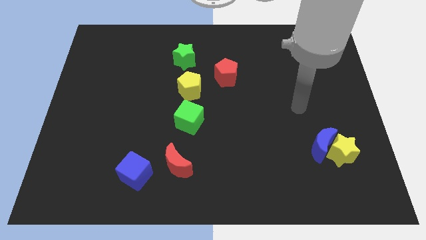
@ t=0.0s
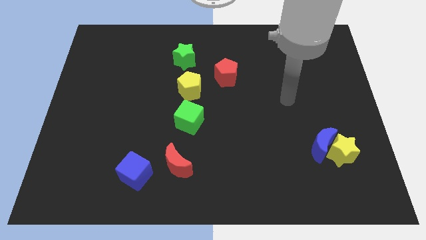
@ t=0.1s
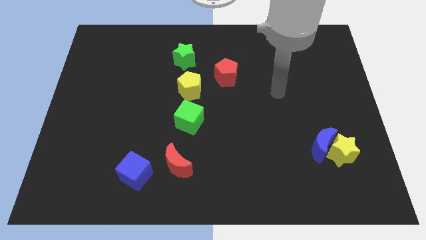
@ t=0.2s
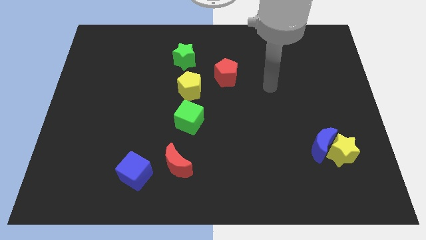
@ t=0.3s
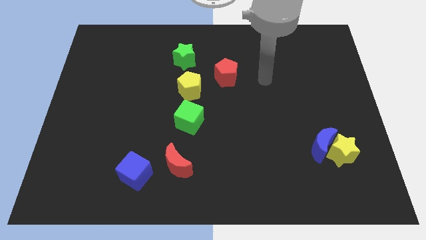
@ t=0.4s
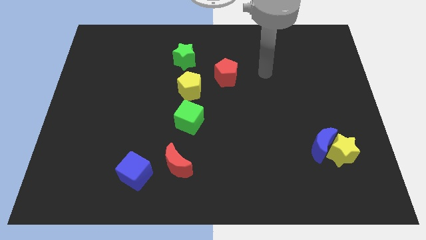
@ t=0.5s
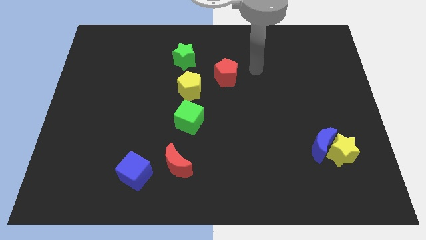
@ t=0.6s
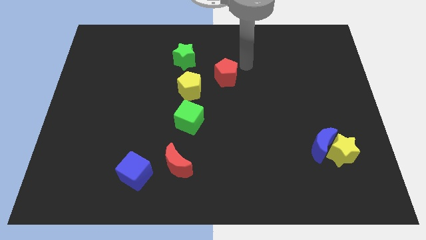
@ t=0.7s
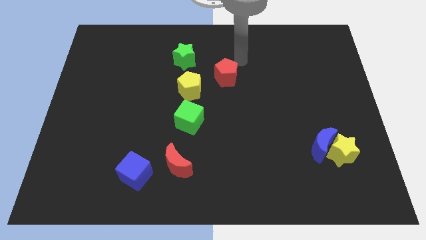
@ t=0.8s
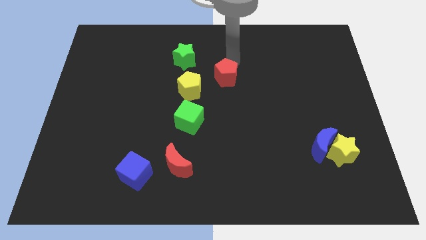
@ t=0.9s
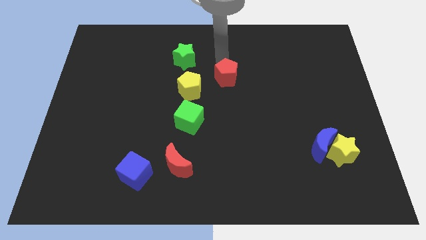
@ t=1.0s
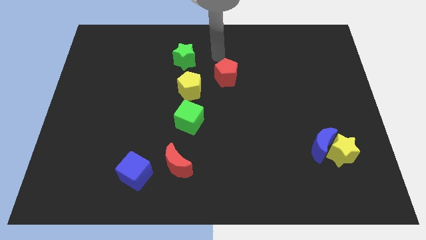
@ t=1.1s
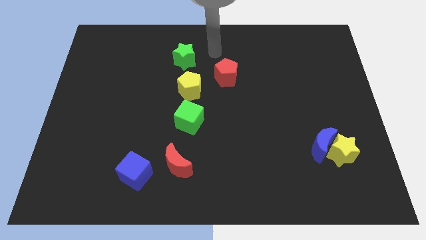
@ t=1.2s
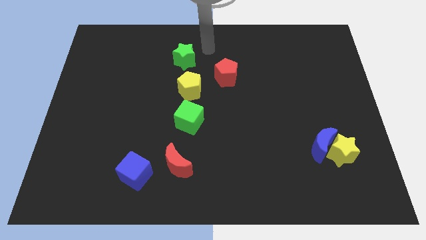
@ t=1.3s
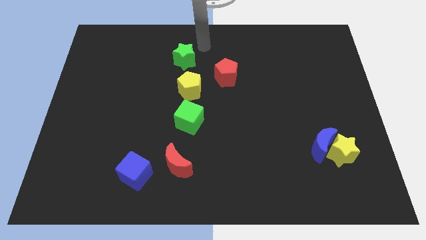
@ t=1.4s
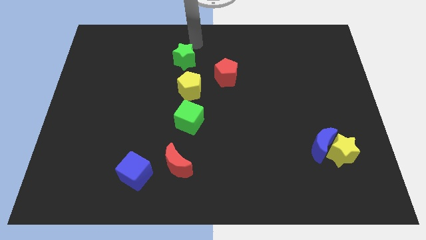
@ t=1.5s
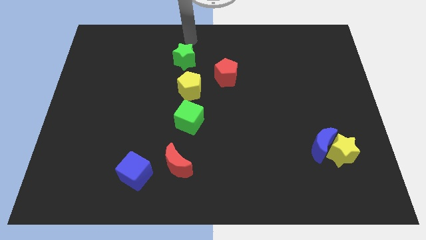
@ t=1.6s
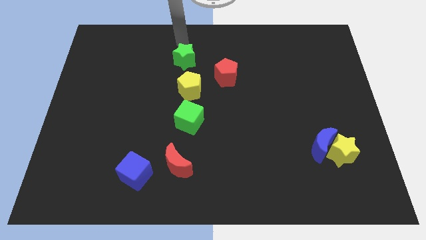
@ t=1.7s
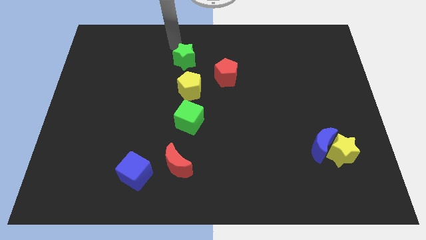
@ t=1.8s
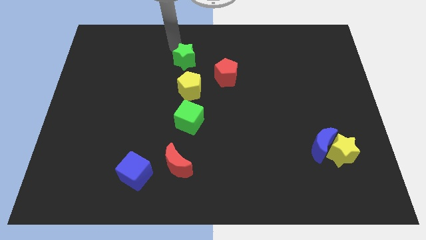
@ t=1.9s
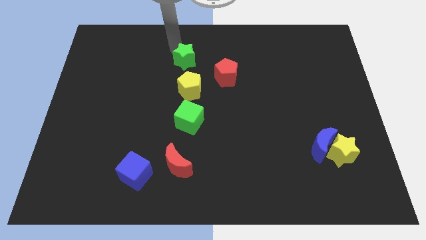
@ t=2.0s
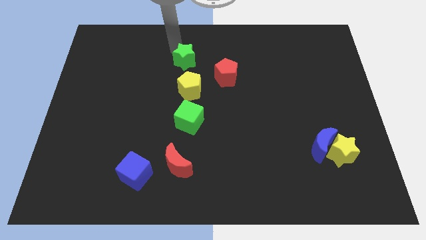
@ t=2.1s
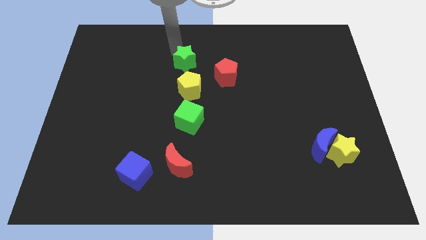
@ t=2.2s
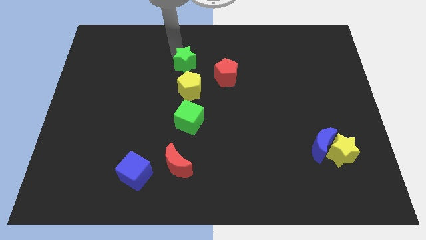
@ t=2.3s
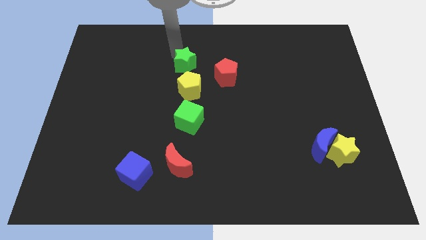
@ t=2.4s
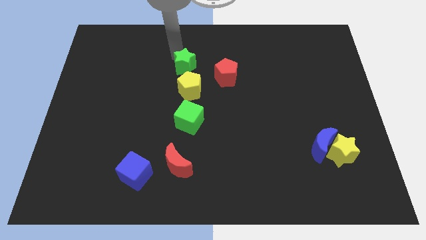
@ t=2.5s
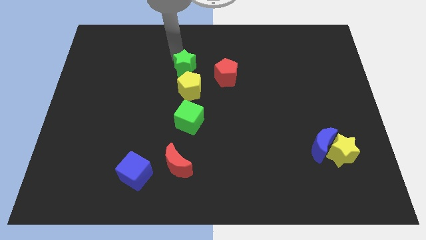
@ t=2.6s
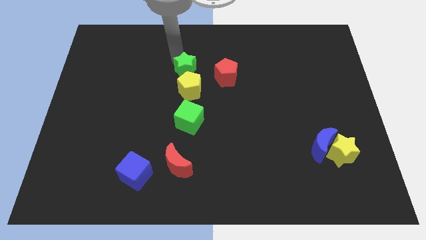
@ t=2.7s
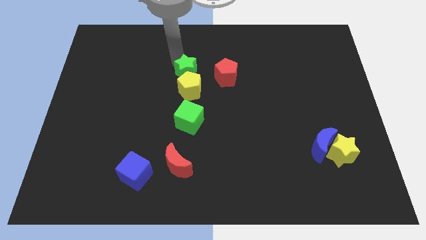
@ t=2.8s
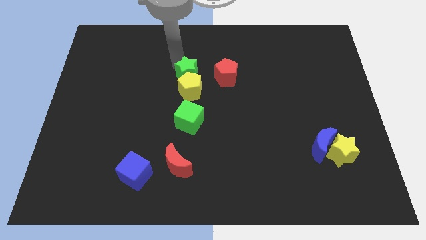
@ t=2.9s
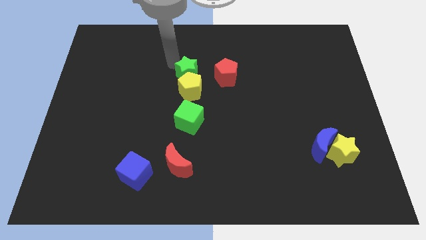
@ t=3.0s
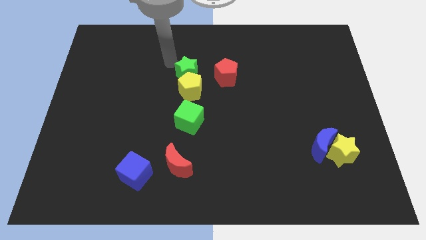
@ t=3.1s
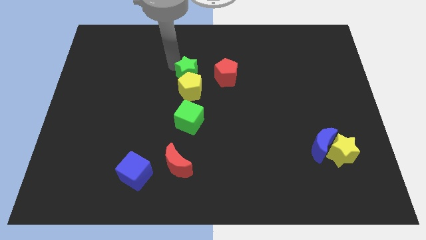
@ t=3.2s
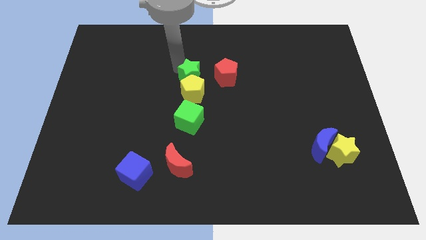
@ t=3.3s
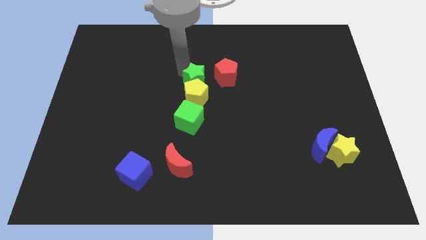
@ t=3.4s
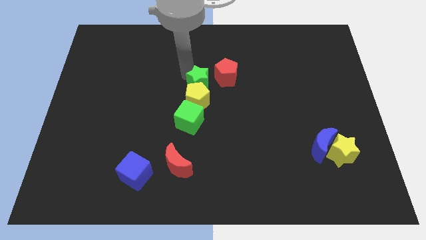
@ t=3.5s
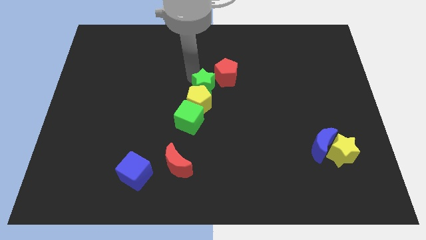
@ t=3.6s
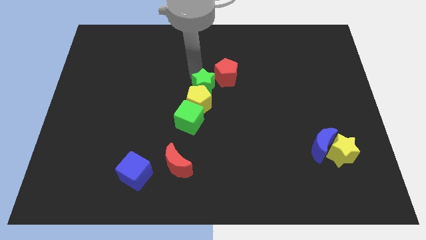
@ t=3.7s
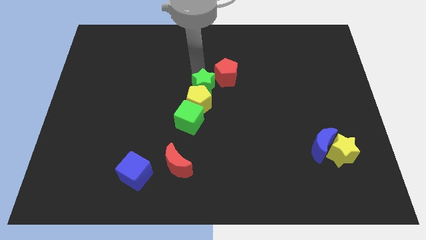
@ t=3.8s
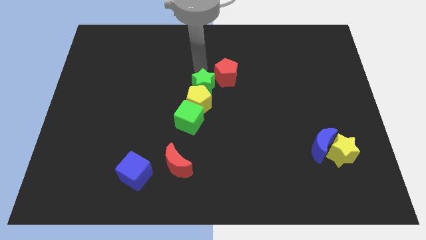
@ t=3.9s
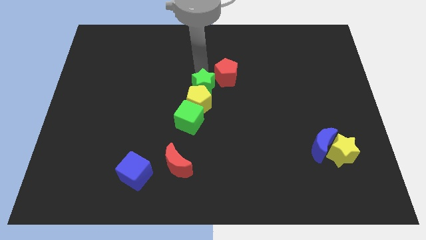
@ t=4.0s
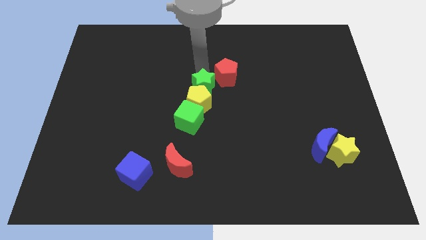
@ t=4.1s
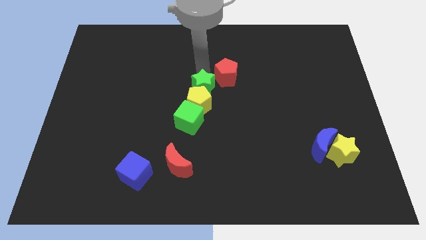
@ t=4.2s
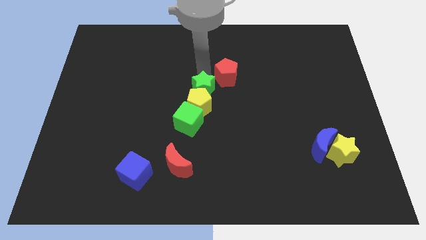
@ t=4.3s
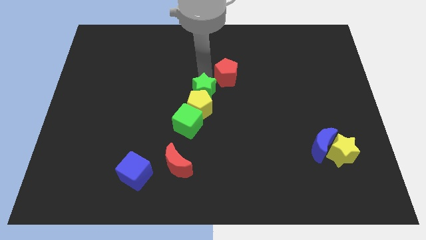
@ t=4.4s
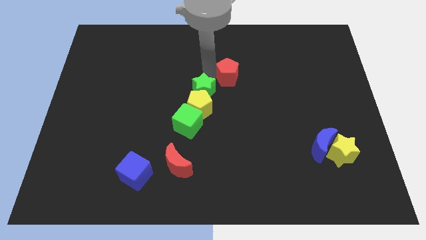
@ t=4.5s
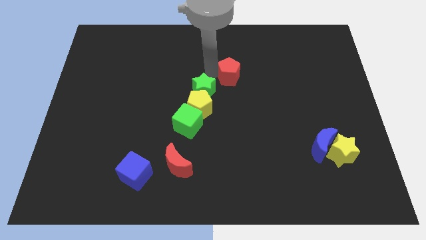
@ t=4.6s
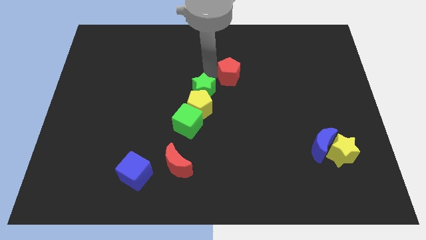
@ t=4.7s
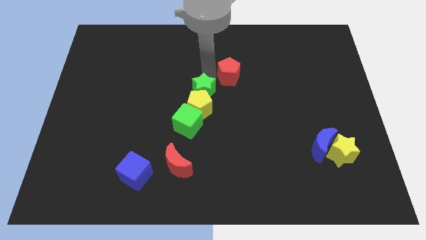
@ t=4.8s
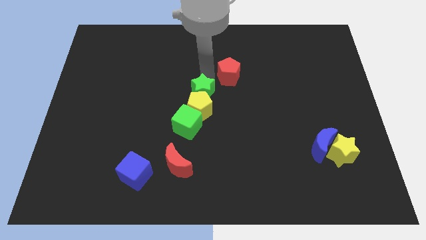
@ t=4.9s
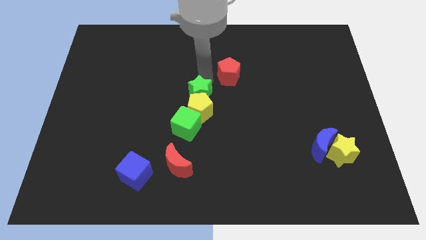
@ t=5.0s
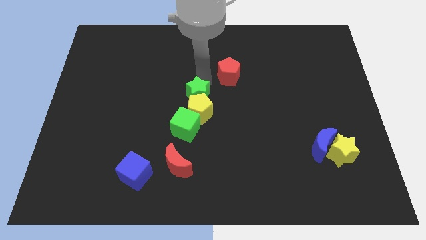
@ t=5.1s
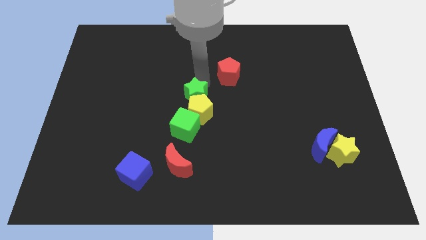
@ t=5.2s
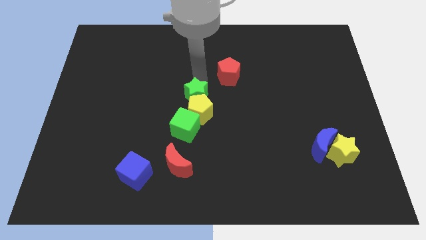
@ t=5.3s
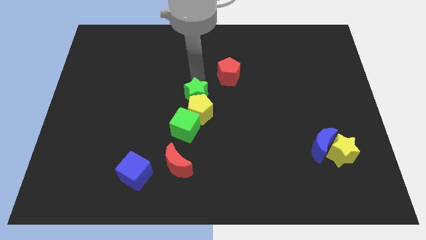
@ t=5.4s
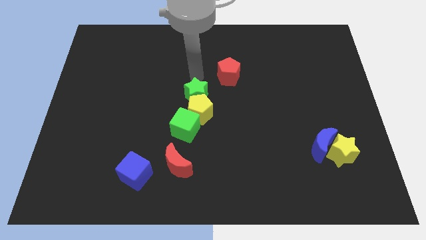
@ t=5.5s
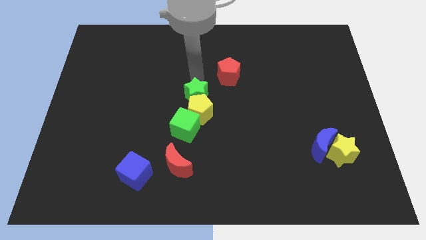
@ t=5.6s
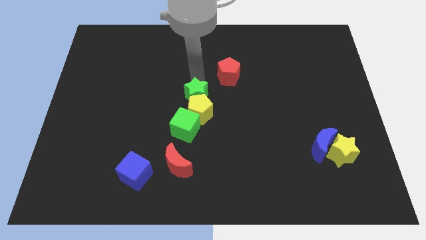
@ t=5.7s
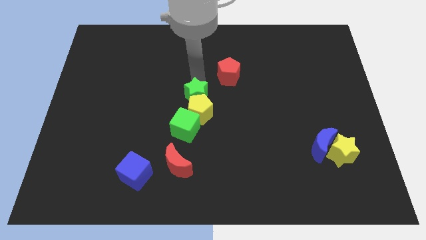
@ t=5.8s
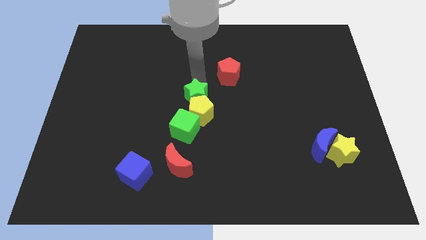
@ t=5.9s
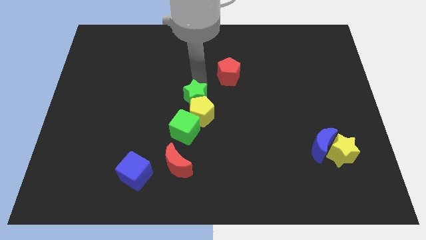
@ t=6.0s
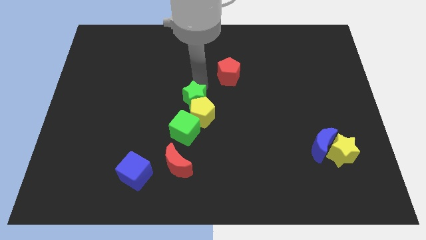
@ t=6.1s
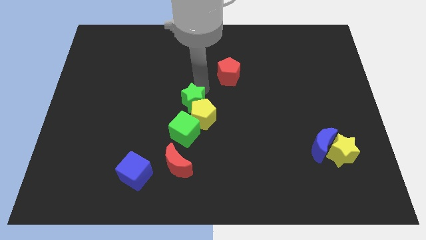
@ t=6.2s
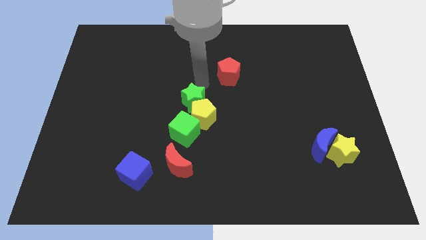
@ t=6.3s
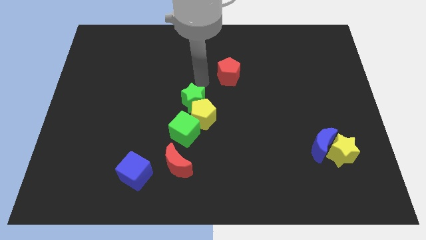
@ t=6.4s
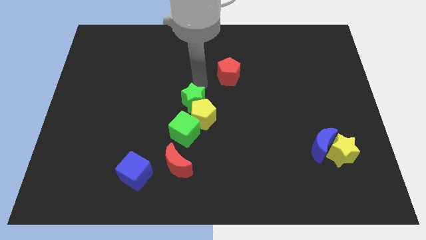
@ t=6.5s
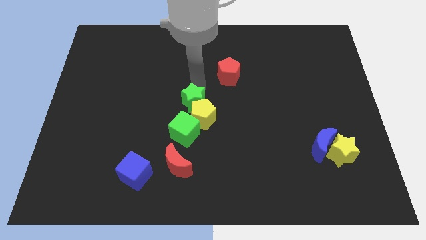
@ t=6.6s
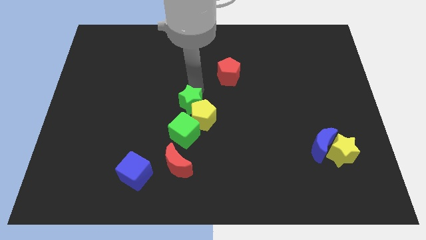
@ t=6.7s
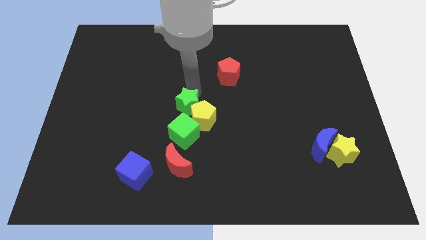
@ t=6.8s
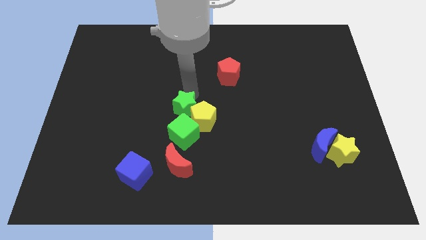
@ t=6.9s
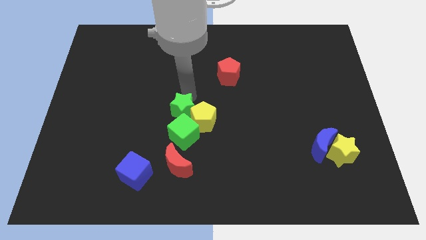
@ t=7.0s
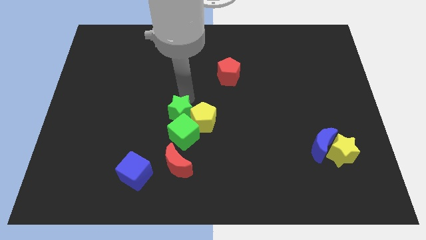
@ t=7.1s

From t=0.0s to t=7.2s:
slide the green star next to the green cube

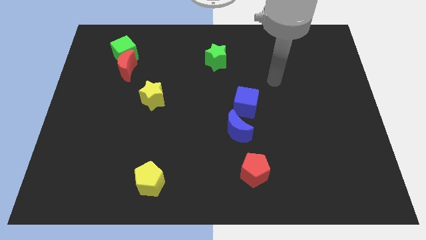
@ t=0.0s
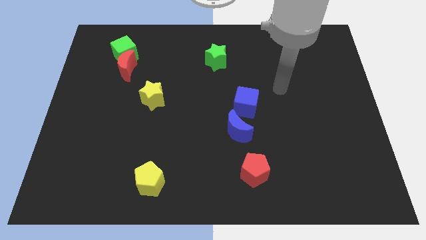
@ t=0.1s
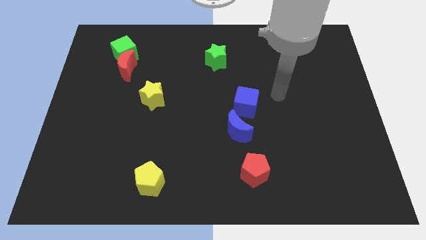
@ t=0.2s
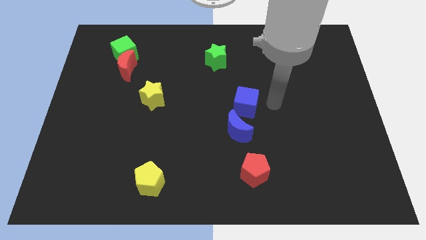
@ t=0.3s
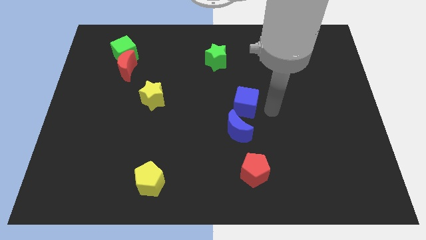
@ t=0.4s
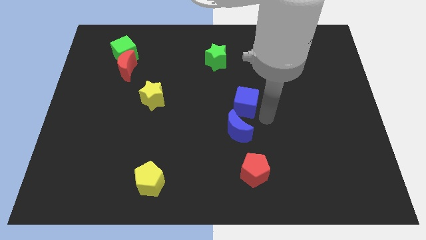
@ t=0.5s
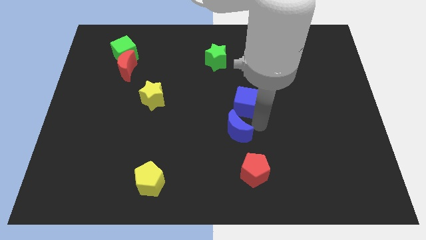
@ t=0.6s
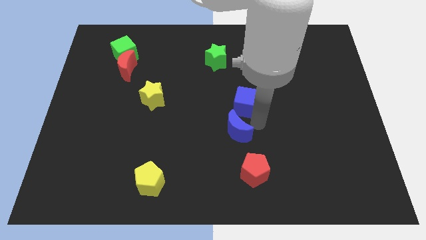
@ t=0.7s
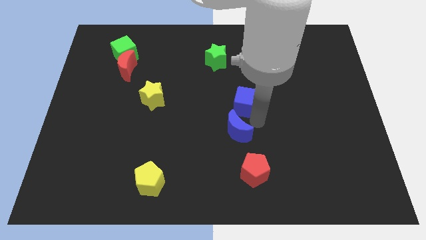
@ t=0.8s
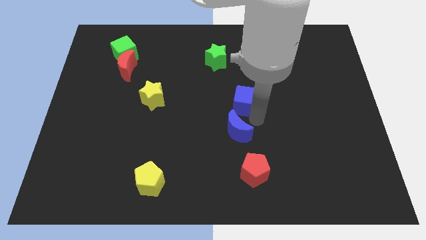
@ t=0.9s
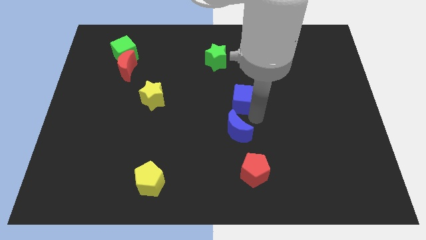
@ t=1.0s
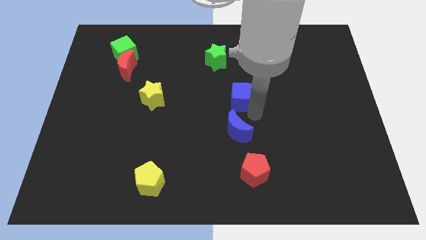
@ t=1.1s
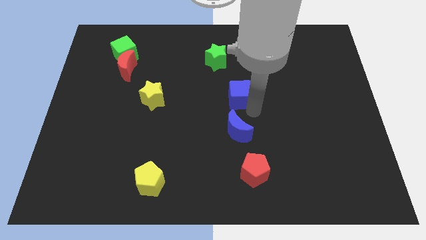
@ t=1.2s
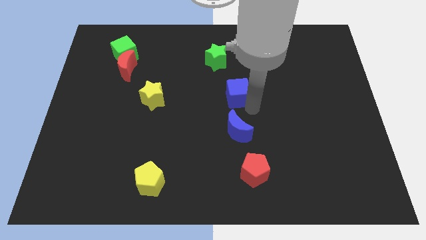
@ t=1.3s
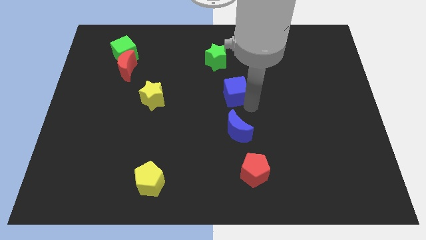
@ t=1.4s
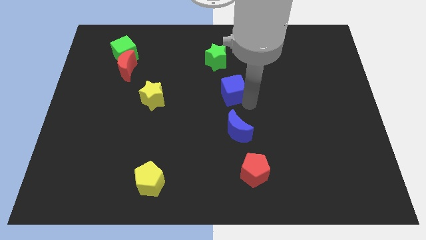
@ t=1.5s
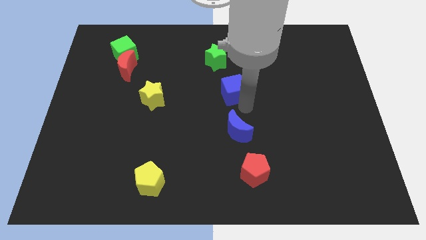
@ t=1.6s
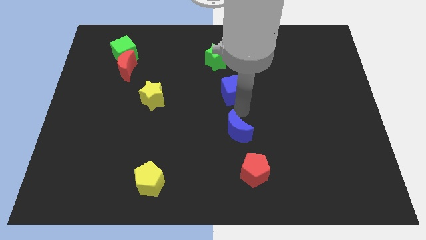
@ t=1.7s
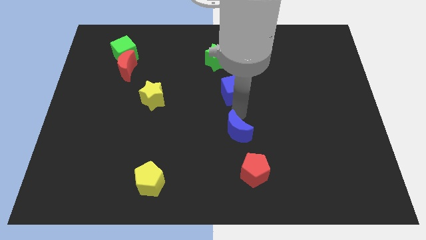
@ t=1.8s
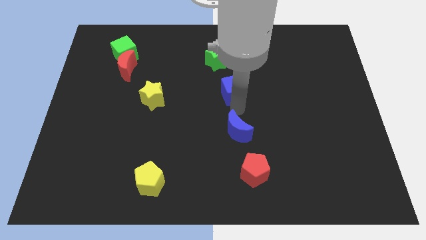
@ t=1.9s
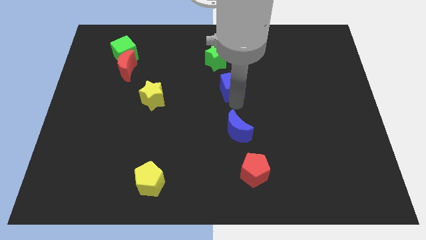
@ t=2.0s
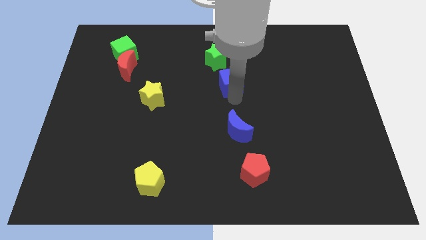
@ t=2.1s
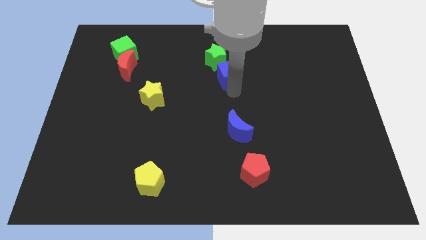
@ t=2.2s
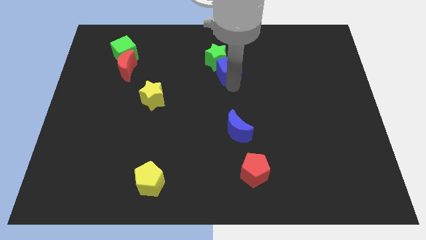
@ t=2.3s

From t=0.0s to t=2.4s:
push the blue cube next to the green star
